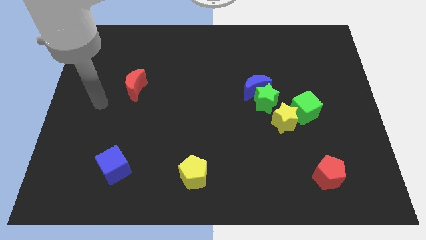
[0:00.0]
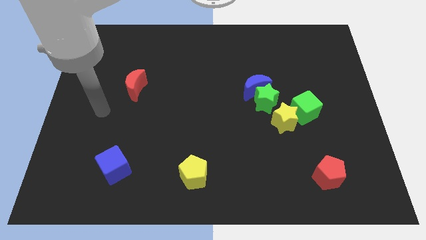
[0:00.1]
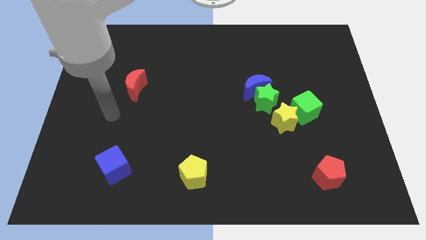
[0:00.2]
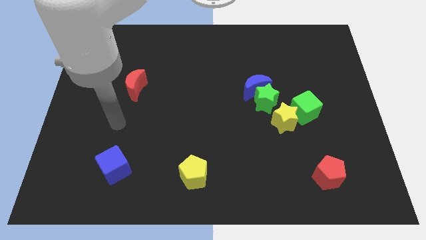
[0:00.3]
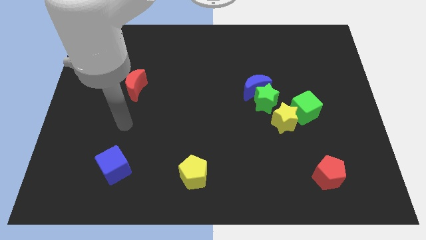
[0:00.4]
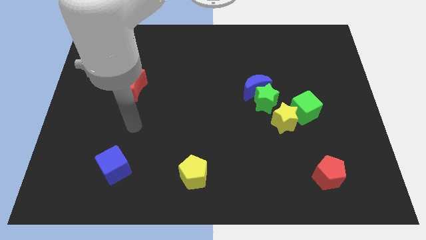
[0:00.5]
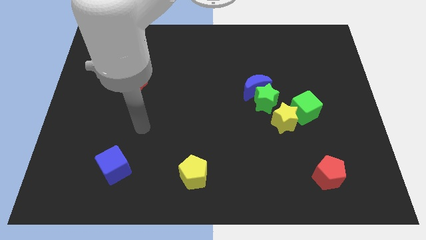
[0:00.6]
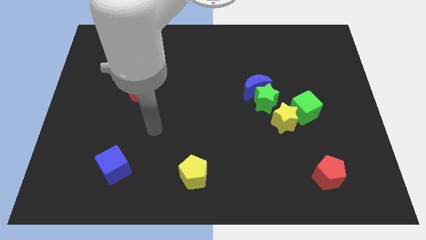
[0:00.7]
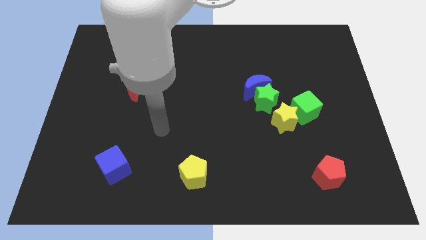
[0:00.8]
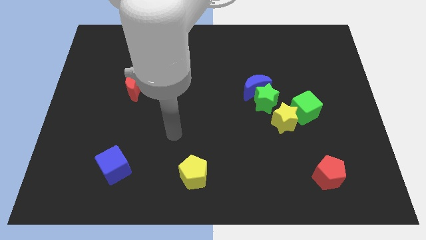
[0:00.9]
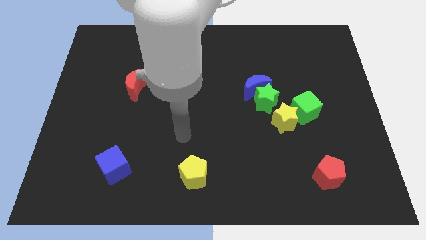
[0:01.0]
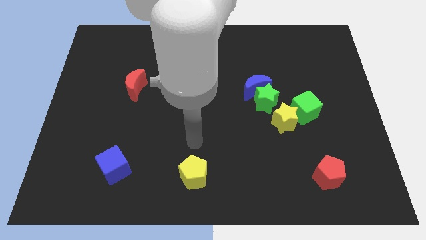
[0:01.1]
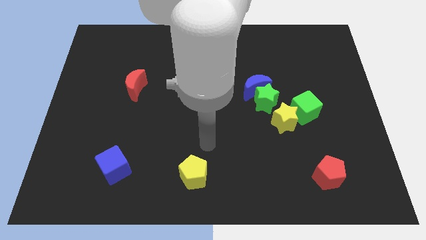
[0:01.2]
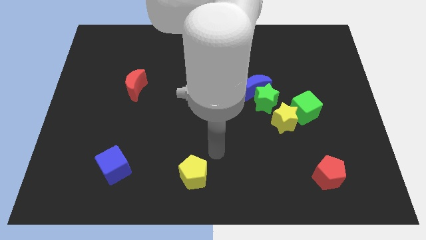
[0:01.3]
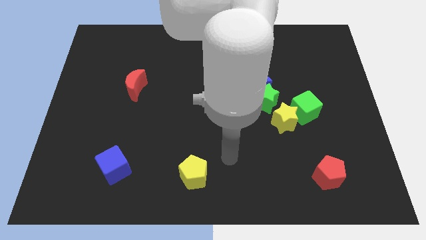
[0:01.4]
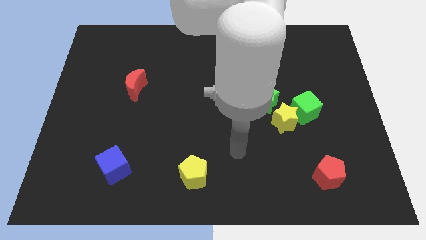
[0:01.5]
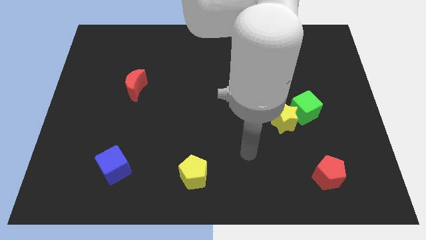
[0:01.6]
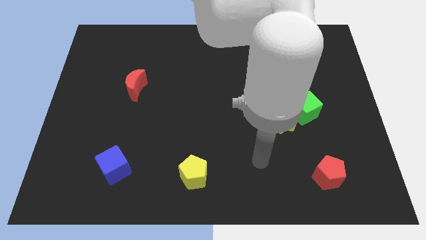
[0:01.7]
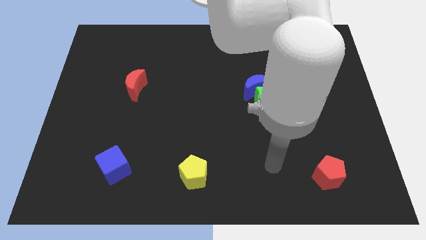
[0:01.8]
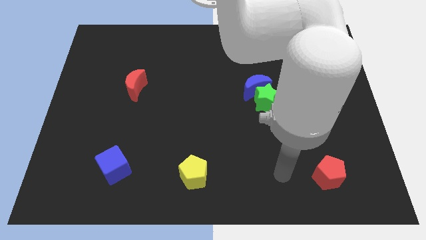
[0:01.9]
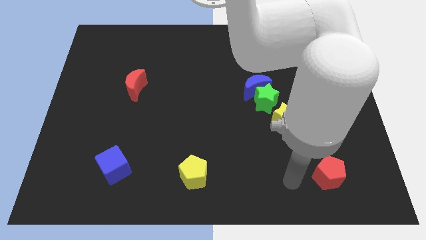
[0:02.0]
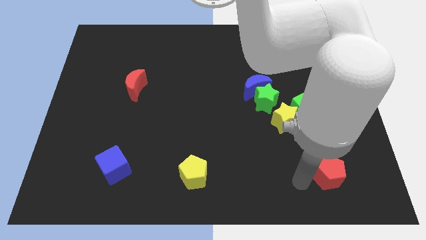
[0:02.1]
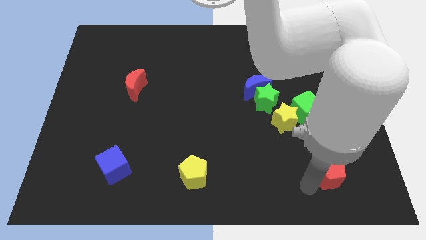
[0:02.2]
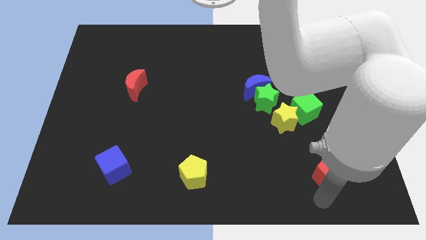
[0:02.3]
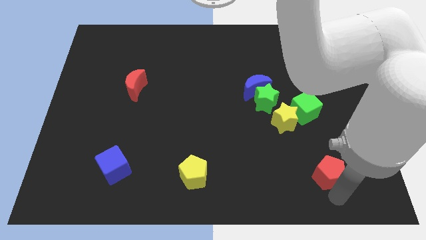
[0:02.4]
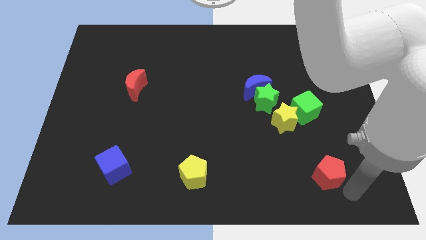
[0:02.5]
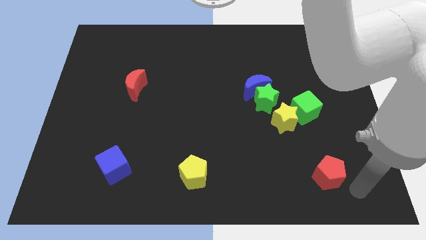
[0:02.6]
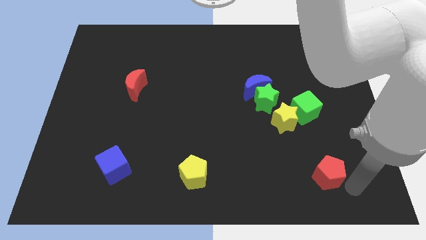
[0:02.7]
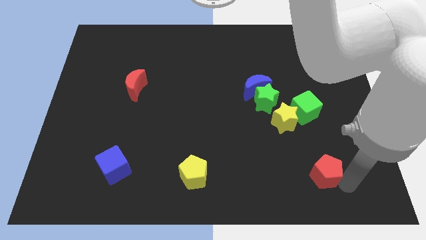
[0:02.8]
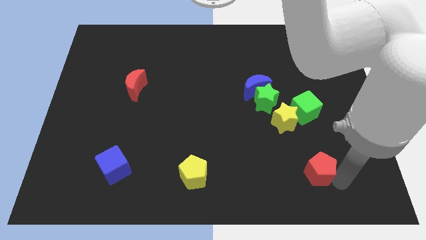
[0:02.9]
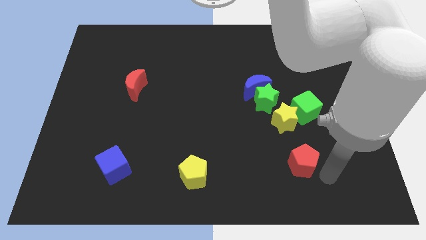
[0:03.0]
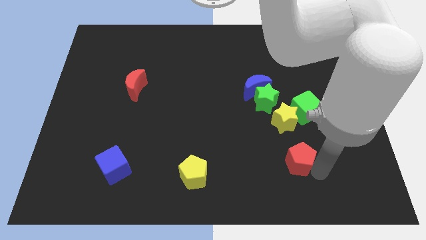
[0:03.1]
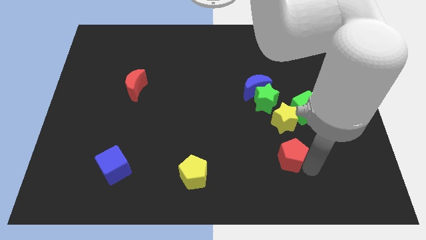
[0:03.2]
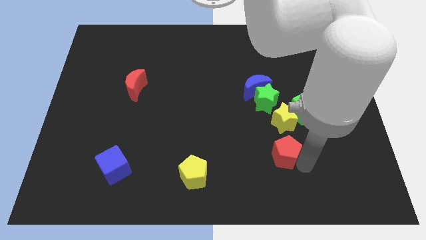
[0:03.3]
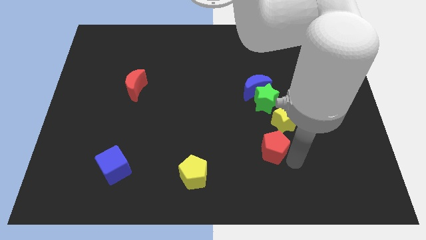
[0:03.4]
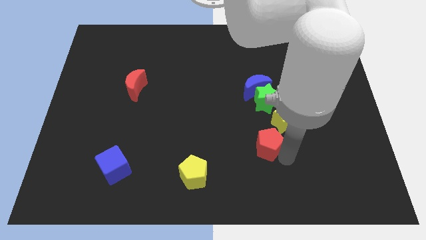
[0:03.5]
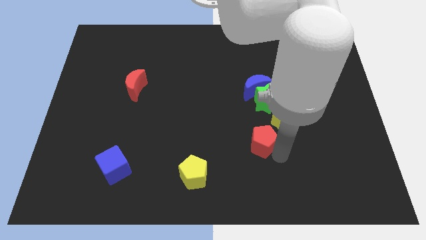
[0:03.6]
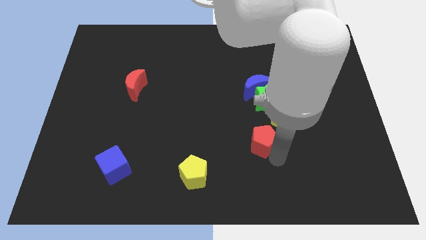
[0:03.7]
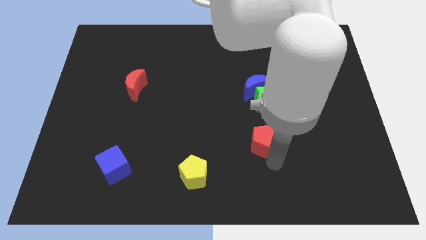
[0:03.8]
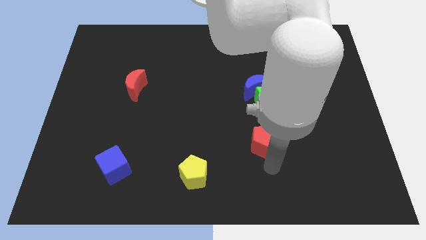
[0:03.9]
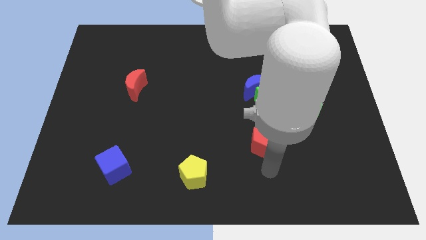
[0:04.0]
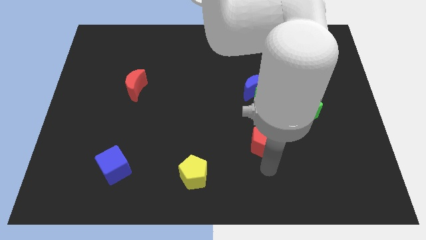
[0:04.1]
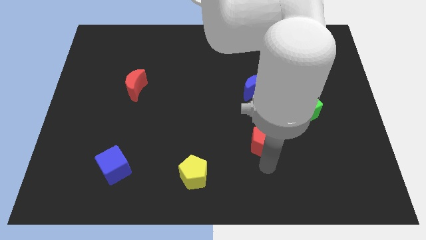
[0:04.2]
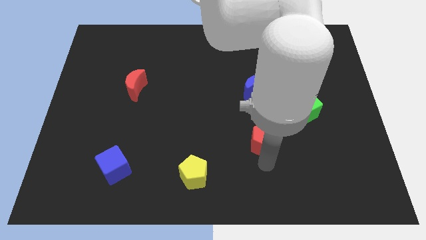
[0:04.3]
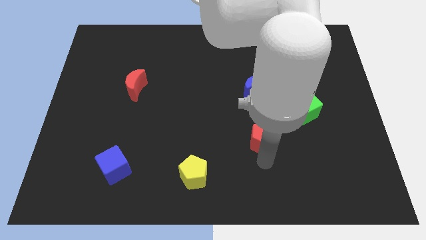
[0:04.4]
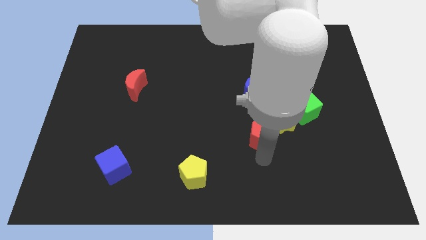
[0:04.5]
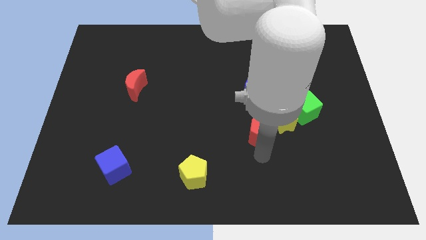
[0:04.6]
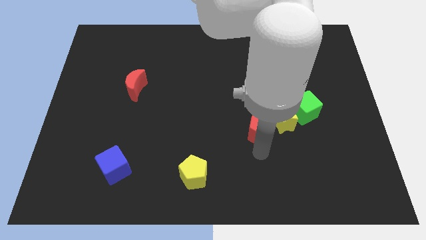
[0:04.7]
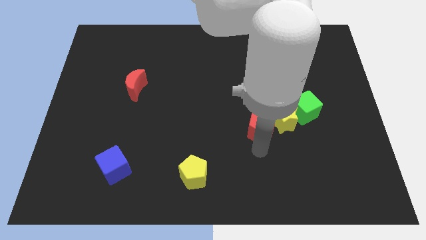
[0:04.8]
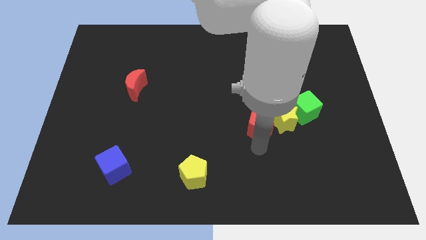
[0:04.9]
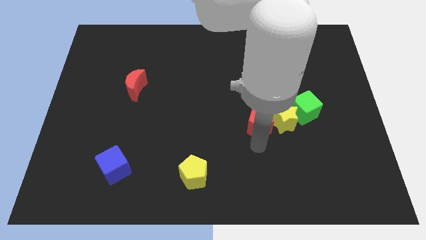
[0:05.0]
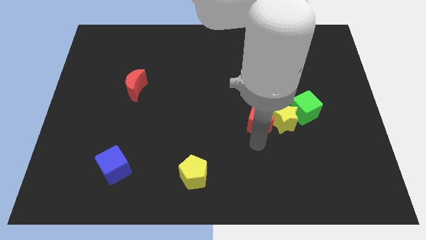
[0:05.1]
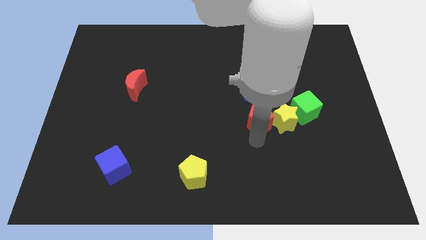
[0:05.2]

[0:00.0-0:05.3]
put the red pentagon next to the green star

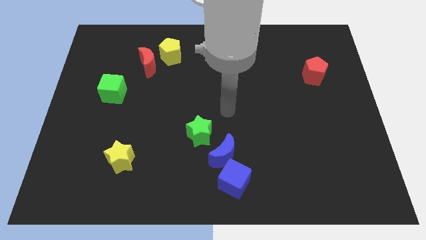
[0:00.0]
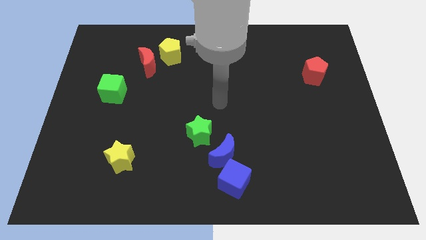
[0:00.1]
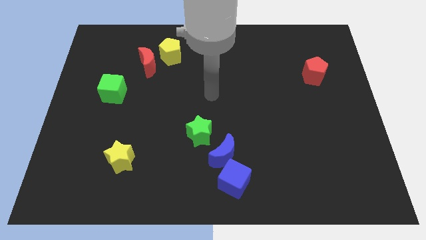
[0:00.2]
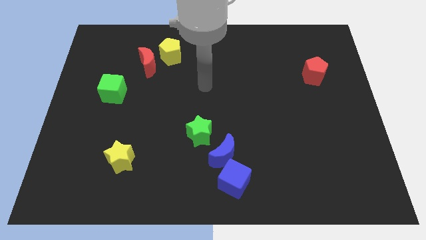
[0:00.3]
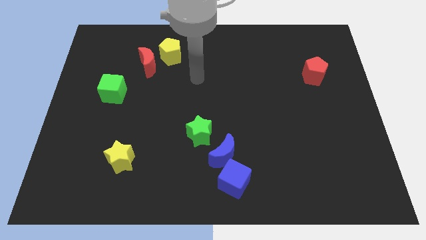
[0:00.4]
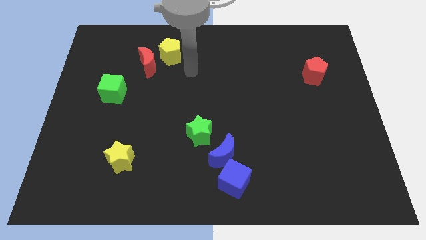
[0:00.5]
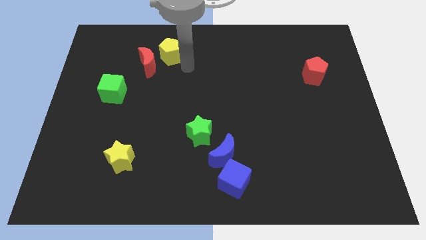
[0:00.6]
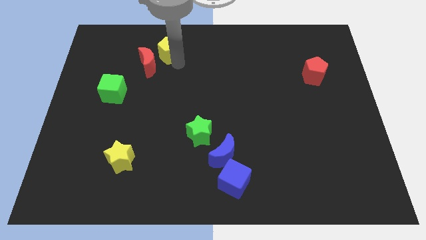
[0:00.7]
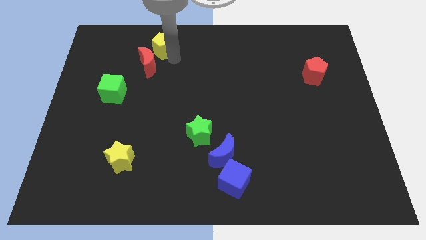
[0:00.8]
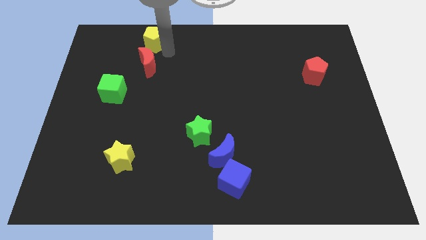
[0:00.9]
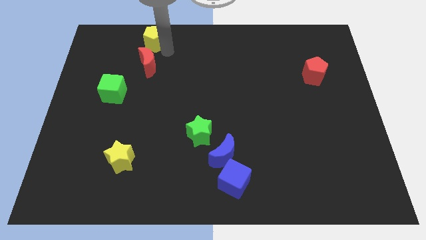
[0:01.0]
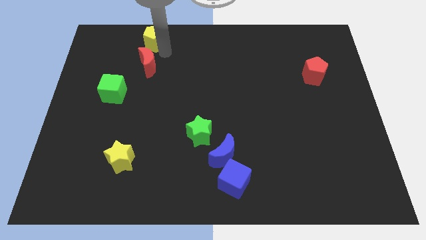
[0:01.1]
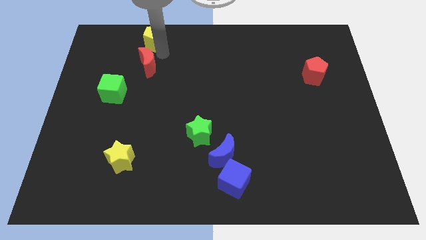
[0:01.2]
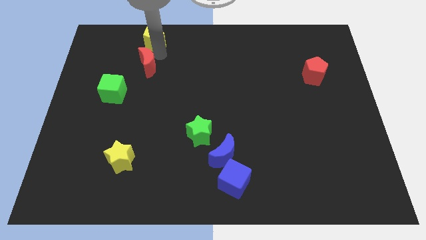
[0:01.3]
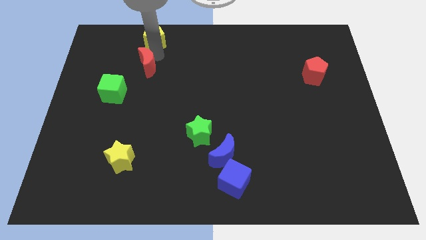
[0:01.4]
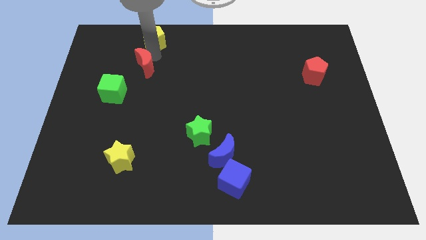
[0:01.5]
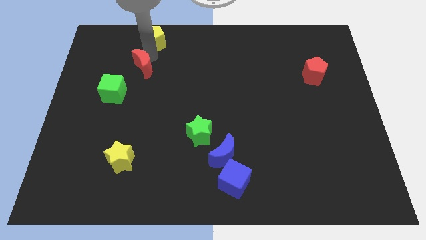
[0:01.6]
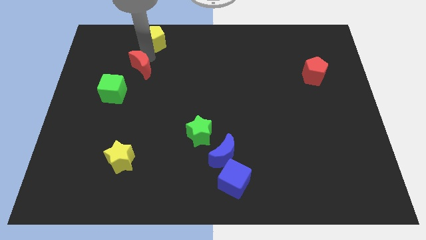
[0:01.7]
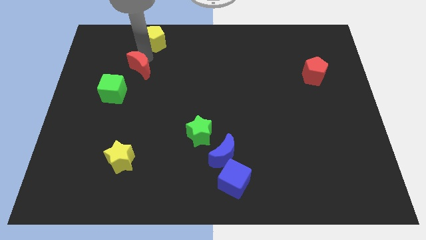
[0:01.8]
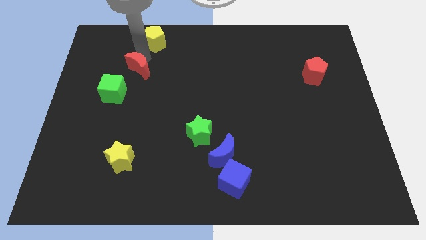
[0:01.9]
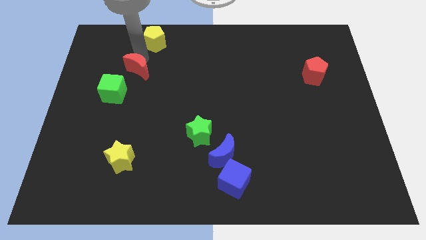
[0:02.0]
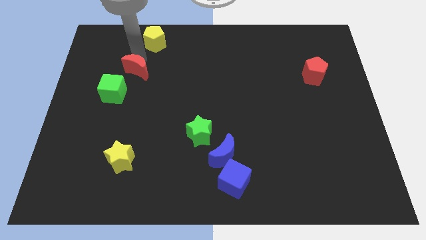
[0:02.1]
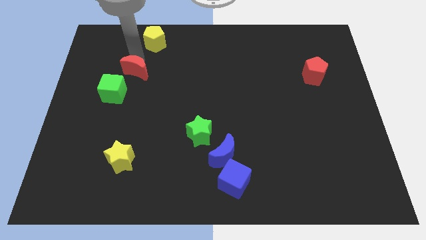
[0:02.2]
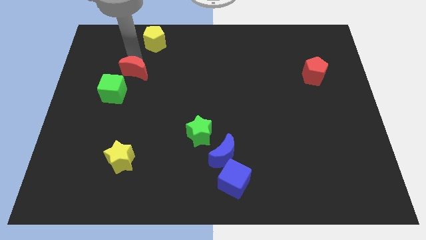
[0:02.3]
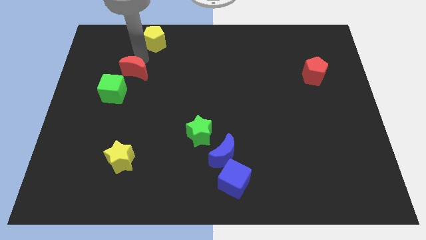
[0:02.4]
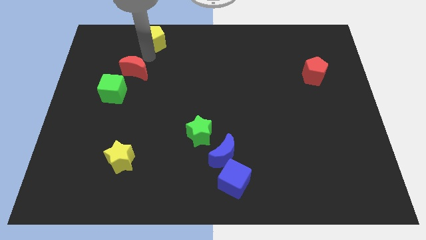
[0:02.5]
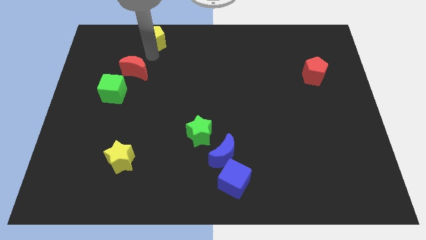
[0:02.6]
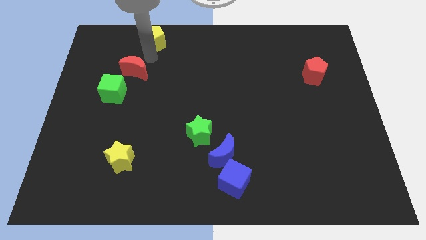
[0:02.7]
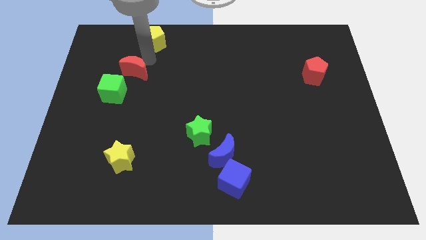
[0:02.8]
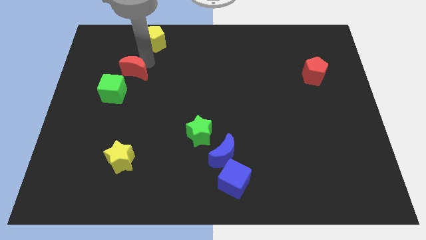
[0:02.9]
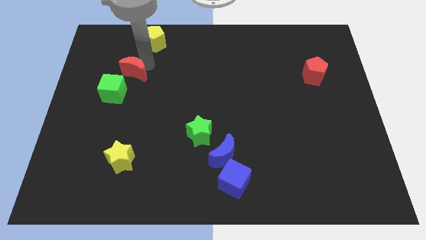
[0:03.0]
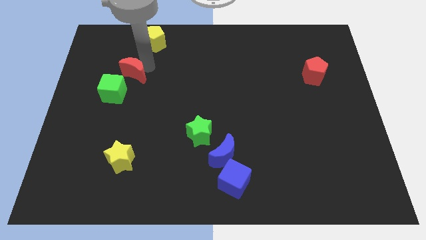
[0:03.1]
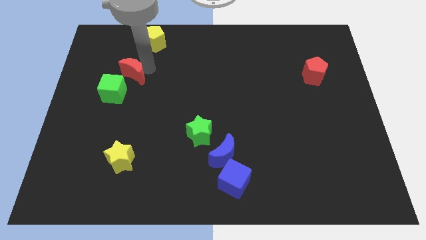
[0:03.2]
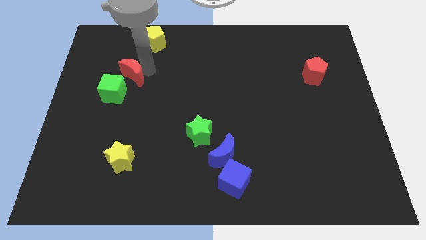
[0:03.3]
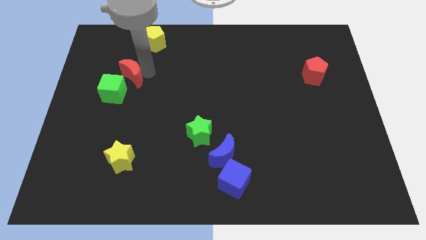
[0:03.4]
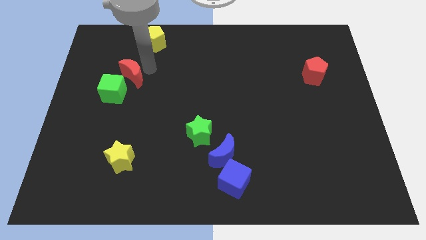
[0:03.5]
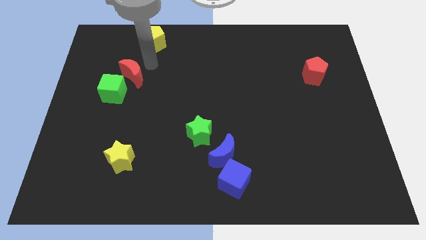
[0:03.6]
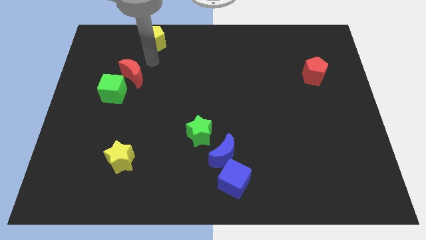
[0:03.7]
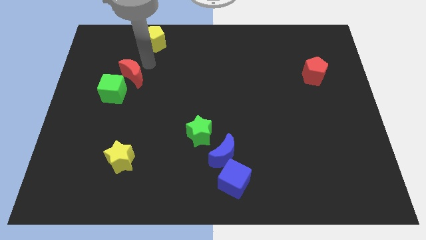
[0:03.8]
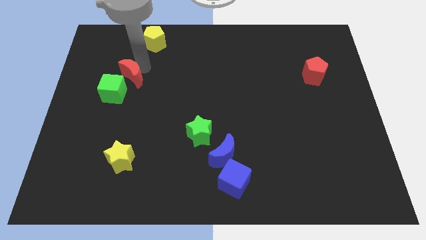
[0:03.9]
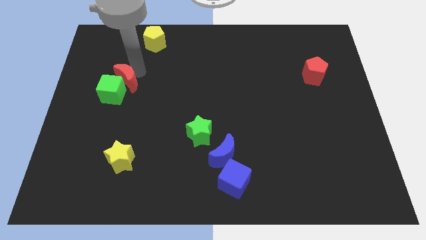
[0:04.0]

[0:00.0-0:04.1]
put the red moon to the green cube
